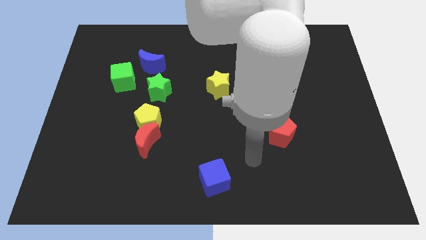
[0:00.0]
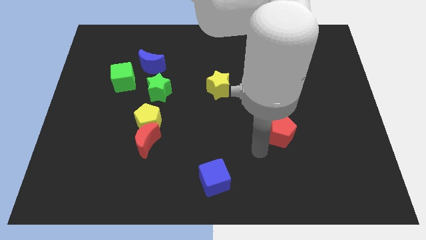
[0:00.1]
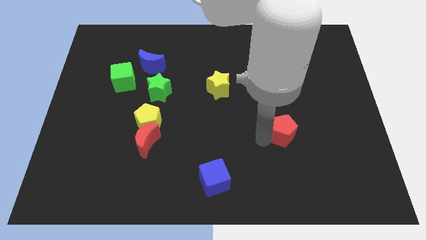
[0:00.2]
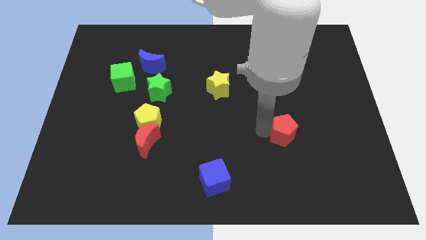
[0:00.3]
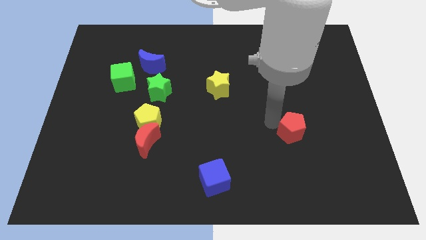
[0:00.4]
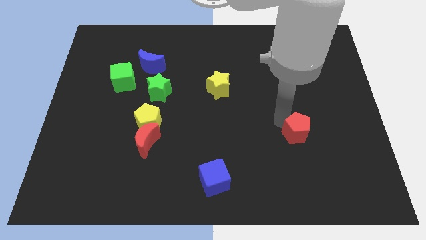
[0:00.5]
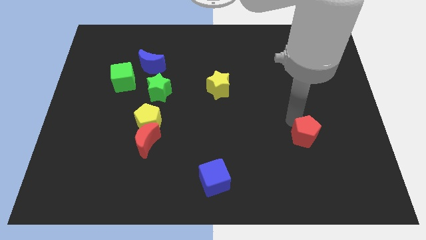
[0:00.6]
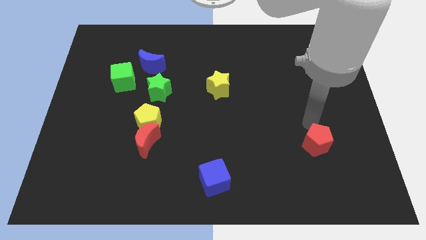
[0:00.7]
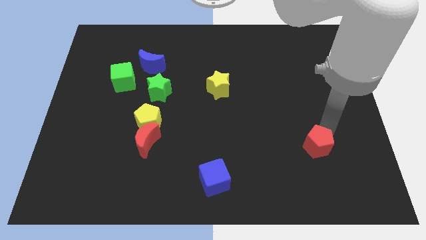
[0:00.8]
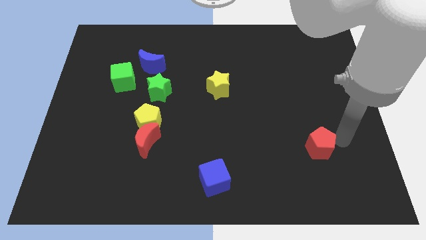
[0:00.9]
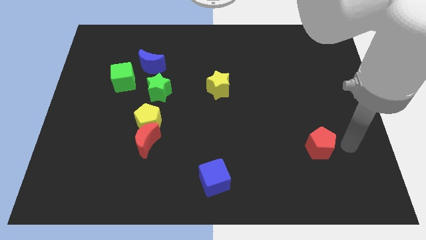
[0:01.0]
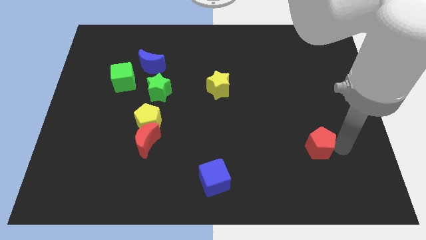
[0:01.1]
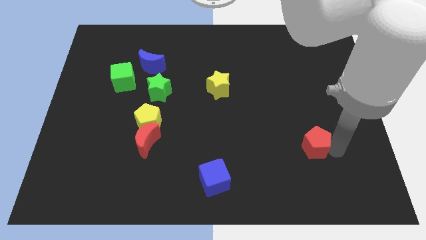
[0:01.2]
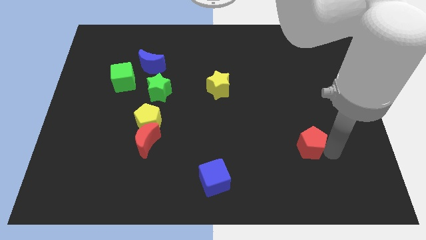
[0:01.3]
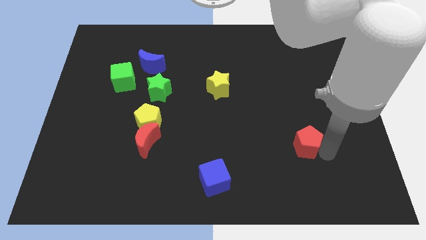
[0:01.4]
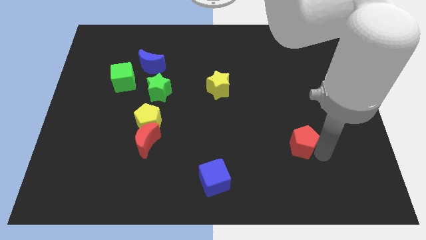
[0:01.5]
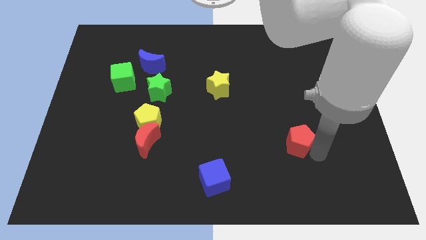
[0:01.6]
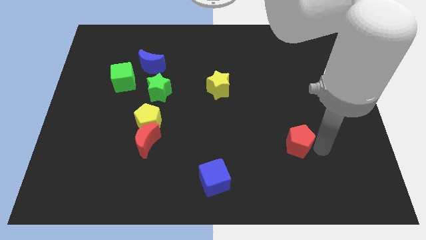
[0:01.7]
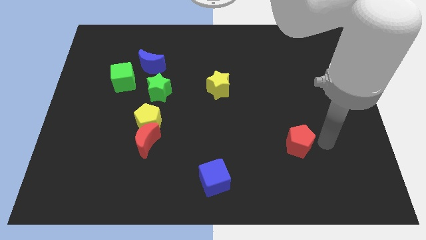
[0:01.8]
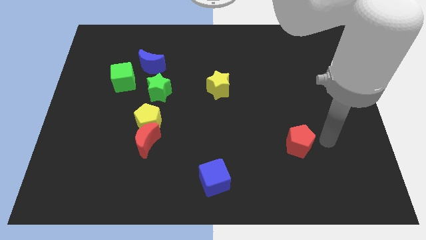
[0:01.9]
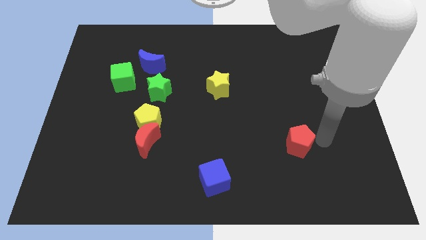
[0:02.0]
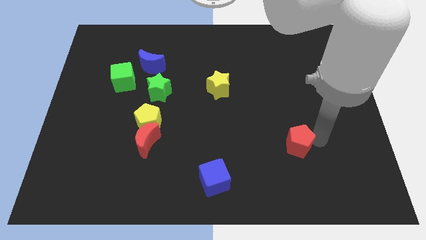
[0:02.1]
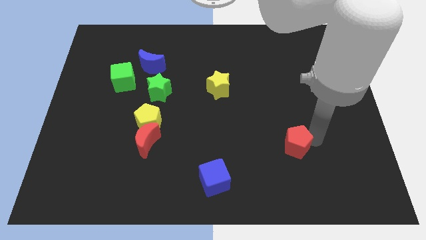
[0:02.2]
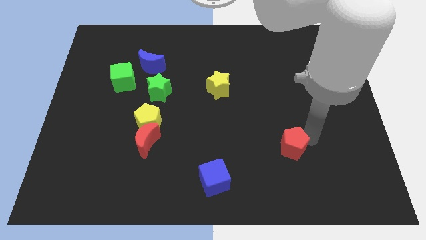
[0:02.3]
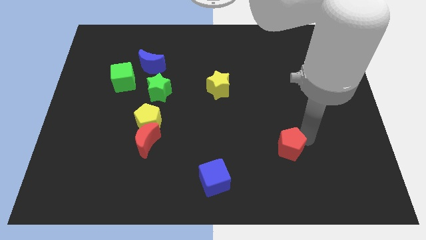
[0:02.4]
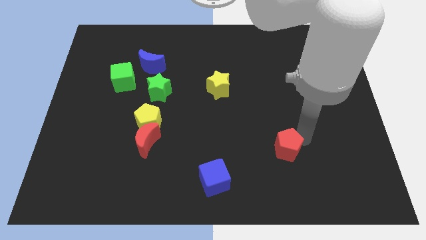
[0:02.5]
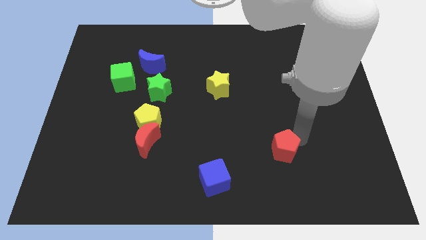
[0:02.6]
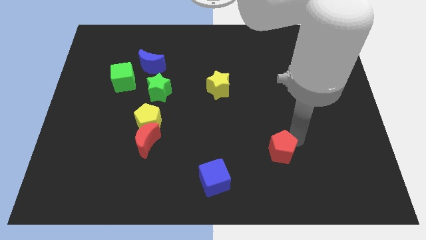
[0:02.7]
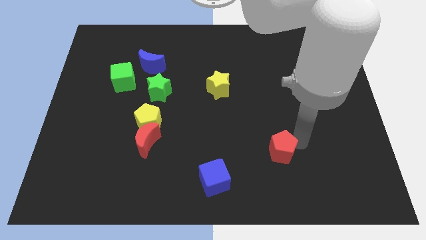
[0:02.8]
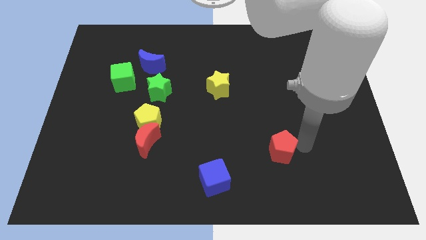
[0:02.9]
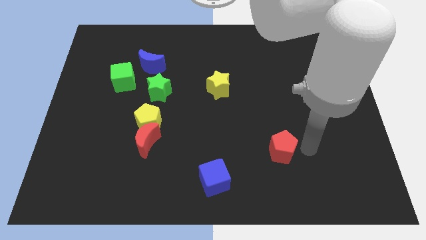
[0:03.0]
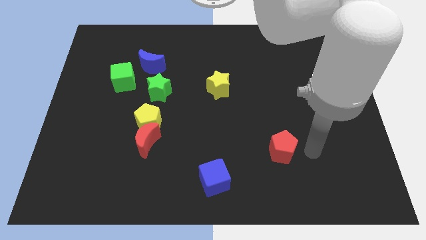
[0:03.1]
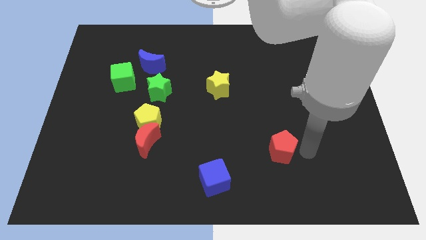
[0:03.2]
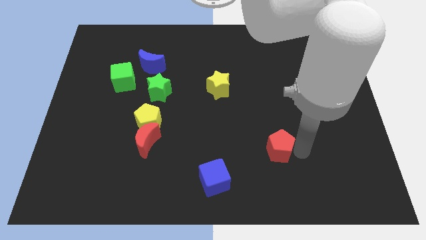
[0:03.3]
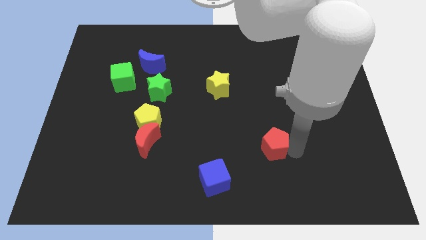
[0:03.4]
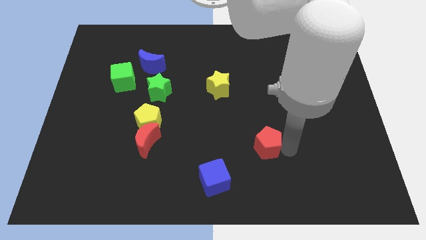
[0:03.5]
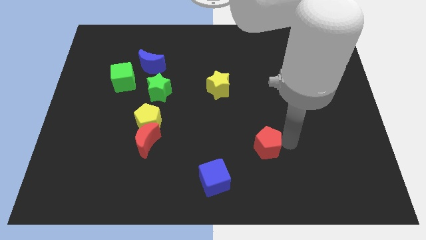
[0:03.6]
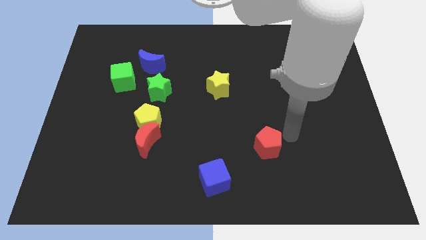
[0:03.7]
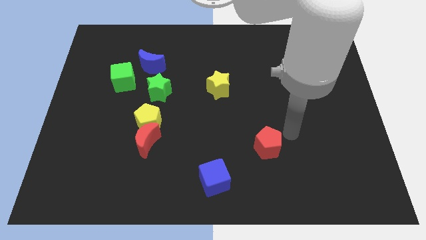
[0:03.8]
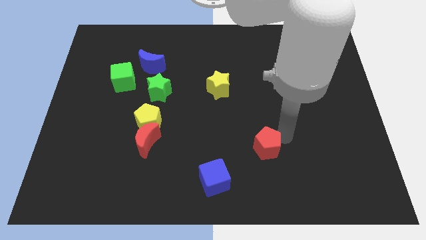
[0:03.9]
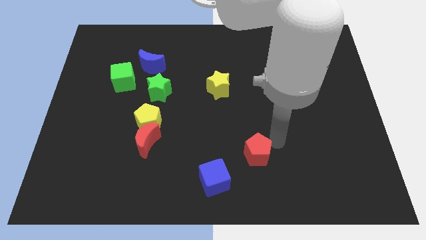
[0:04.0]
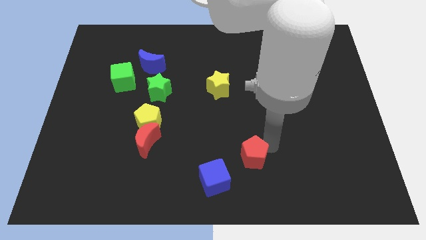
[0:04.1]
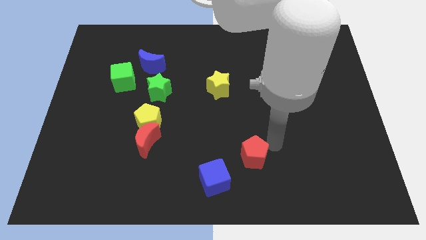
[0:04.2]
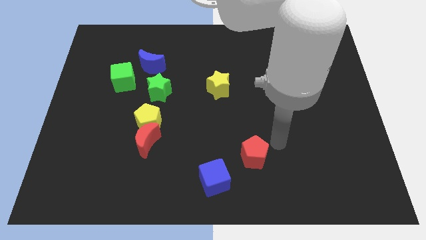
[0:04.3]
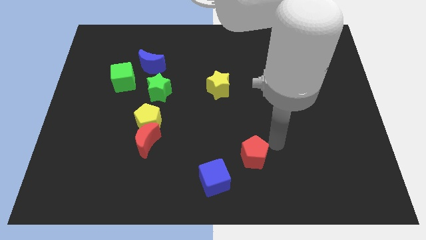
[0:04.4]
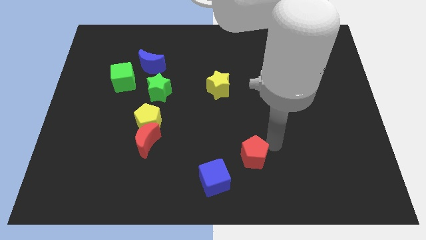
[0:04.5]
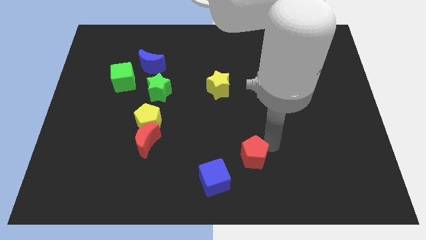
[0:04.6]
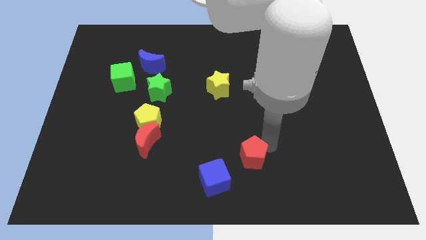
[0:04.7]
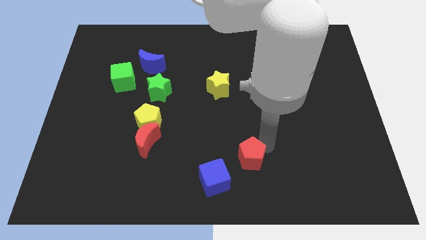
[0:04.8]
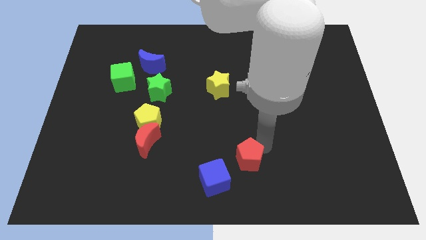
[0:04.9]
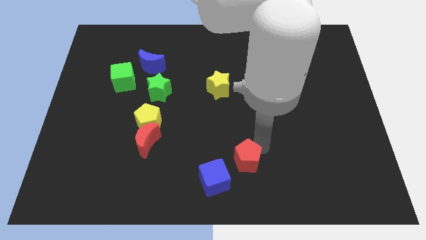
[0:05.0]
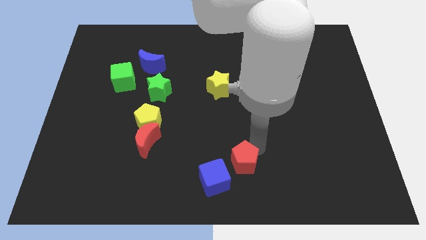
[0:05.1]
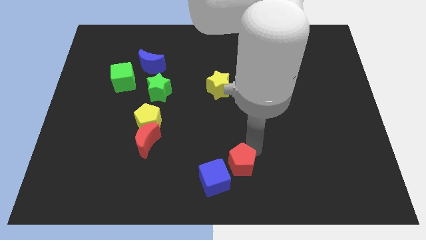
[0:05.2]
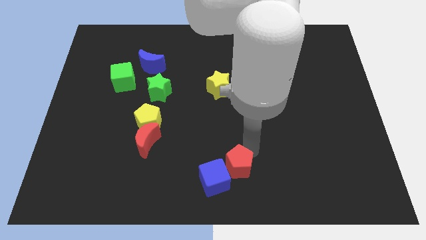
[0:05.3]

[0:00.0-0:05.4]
move the red pentagon to the blue cube

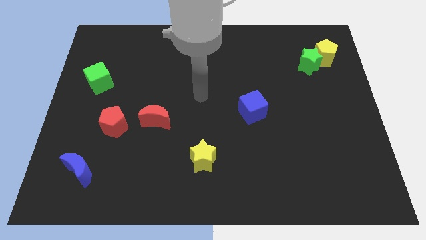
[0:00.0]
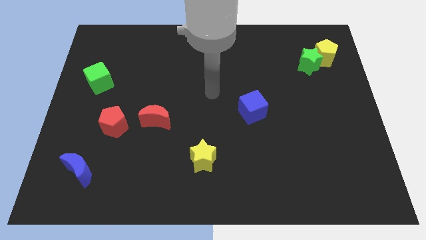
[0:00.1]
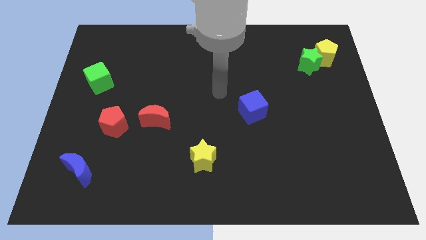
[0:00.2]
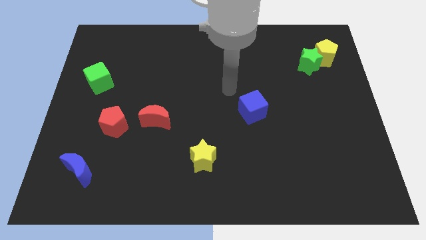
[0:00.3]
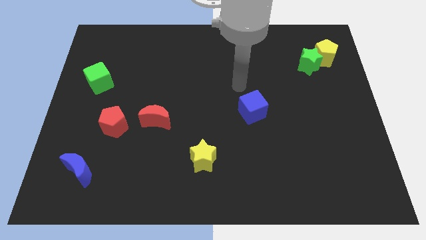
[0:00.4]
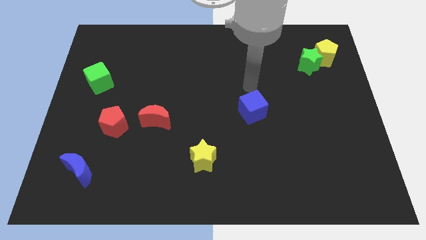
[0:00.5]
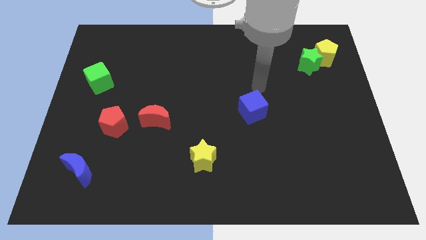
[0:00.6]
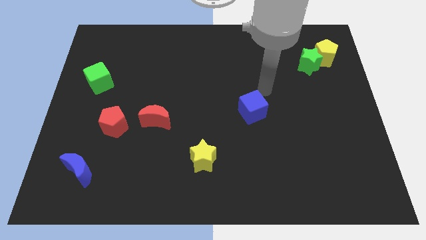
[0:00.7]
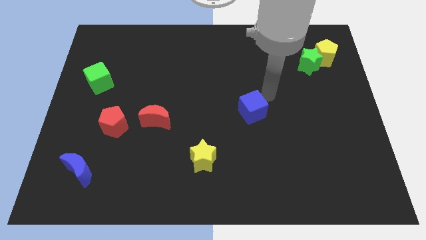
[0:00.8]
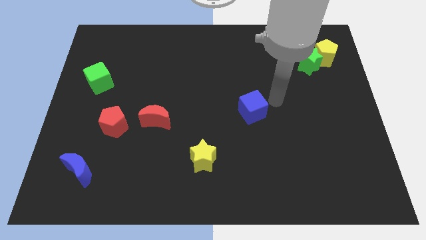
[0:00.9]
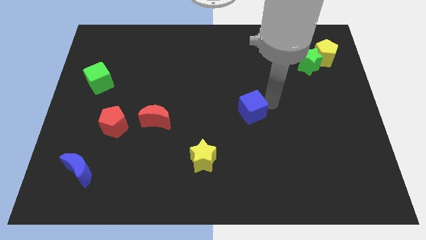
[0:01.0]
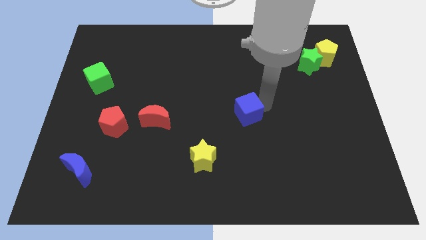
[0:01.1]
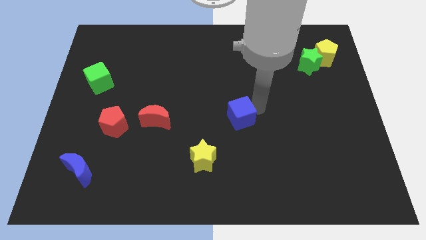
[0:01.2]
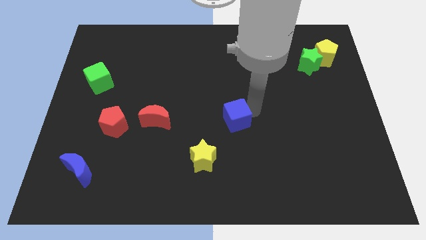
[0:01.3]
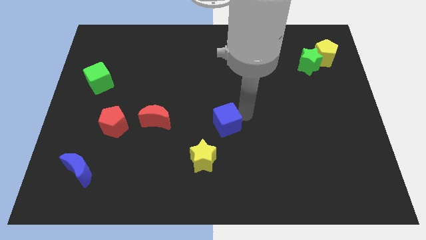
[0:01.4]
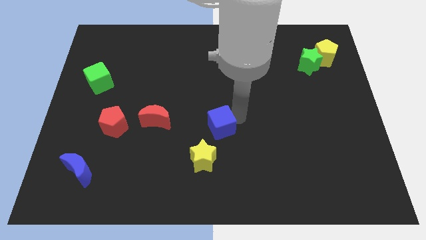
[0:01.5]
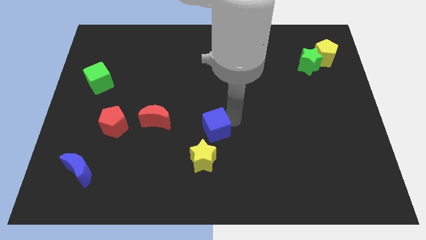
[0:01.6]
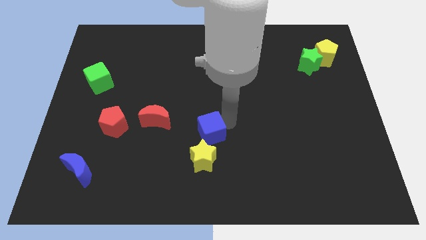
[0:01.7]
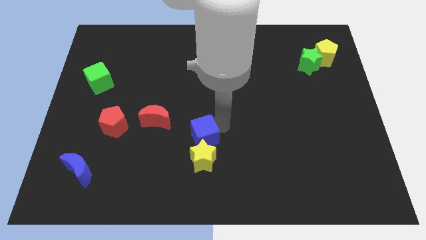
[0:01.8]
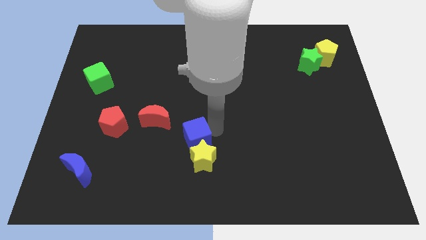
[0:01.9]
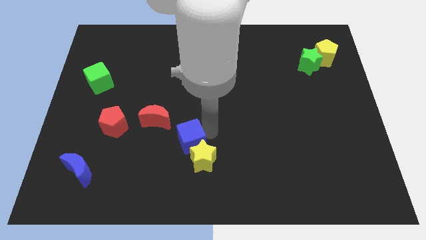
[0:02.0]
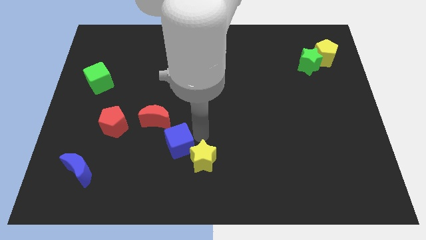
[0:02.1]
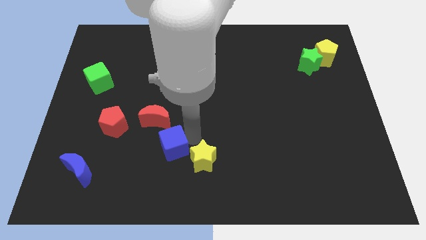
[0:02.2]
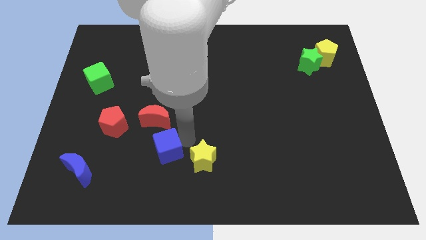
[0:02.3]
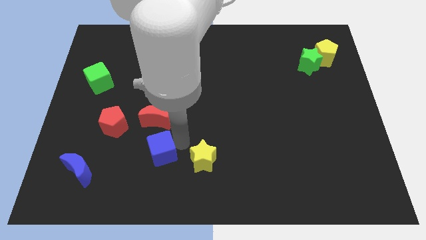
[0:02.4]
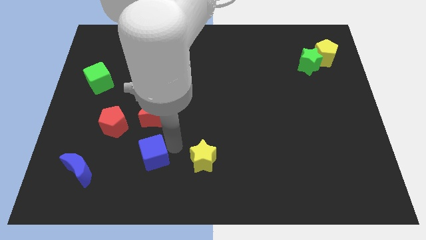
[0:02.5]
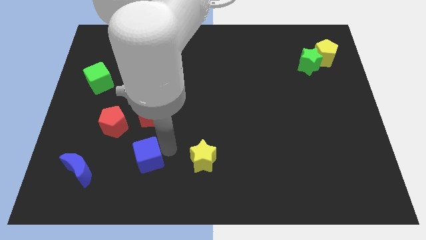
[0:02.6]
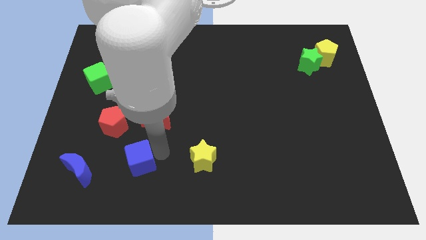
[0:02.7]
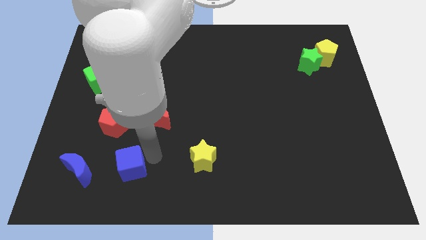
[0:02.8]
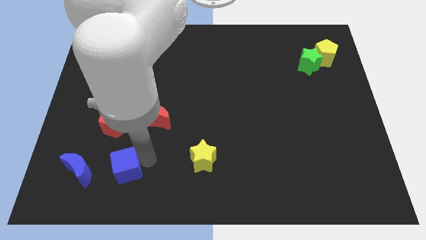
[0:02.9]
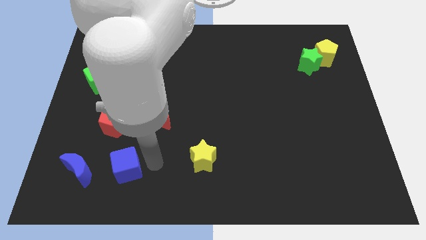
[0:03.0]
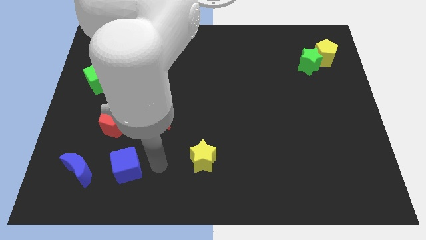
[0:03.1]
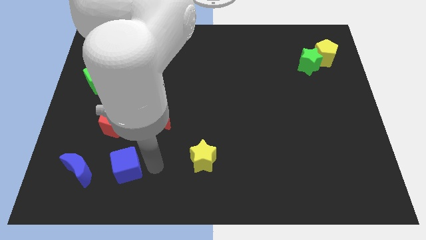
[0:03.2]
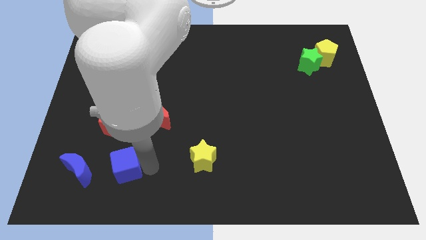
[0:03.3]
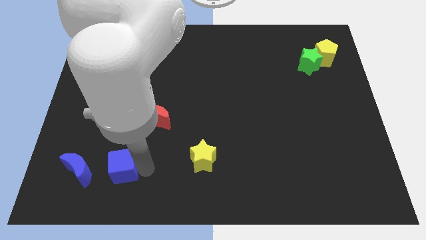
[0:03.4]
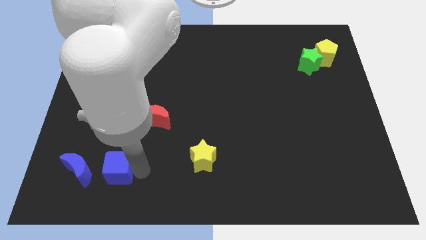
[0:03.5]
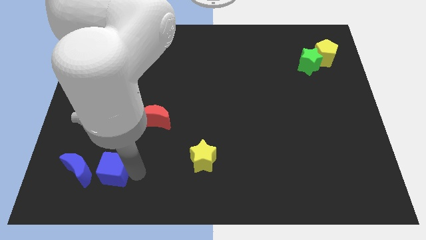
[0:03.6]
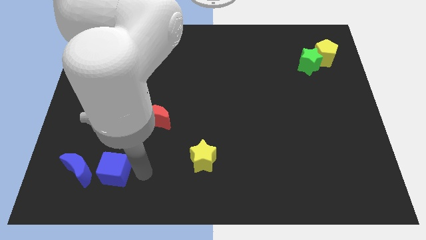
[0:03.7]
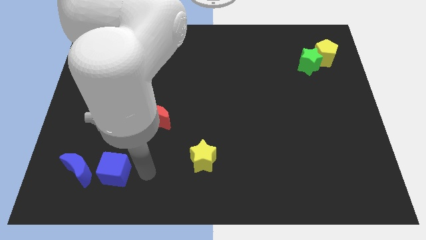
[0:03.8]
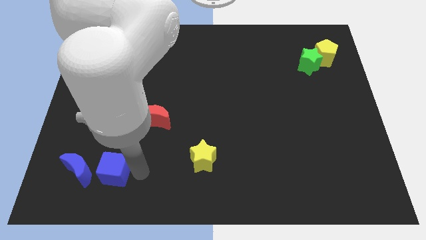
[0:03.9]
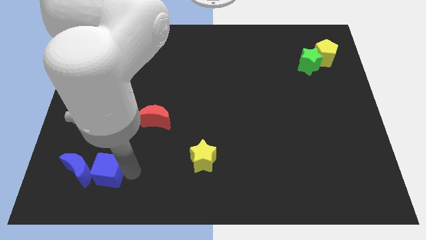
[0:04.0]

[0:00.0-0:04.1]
slide the blue cube towards the blue moon
